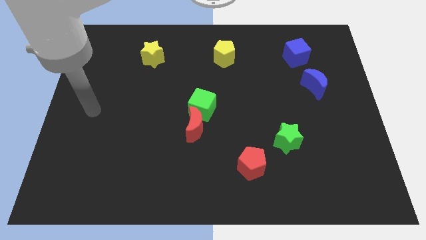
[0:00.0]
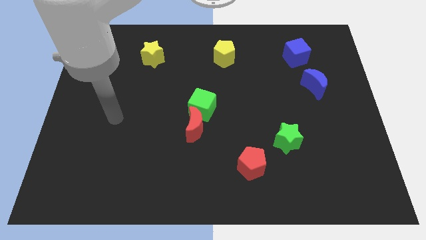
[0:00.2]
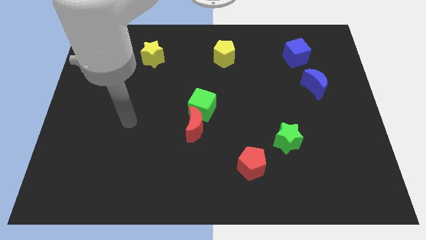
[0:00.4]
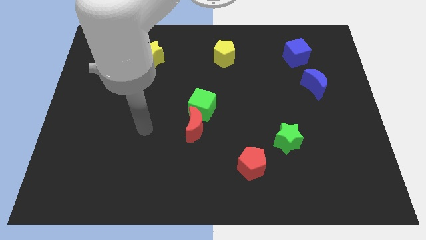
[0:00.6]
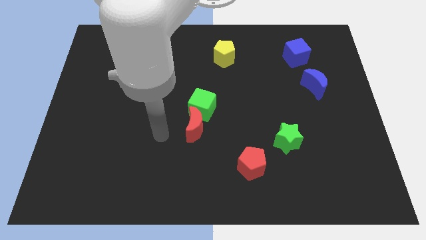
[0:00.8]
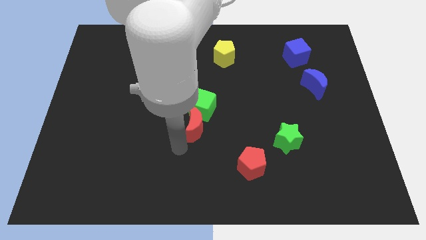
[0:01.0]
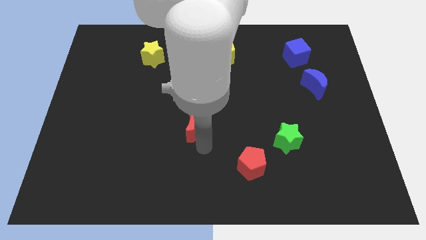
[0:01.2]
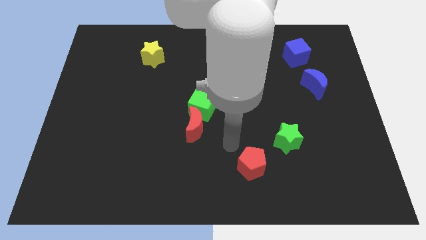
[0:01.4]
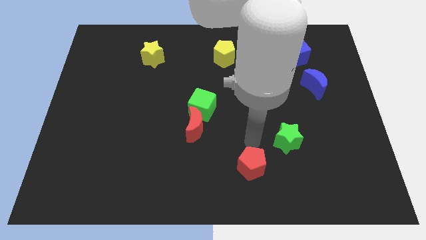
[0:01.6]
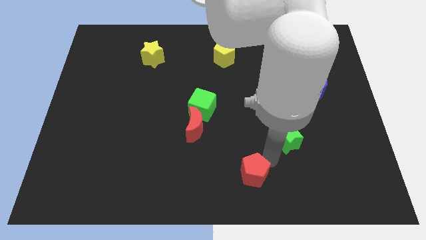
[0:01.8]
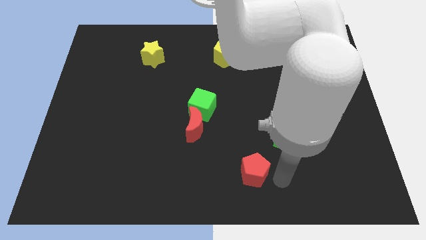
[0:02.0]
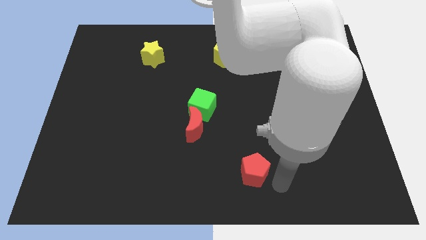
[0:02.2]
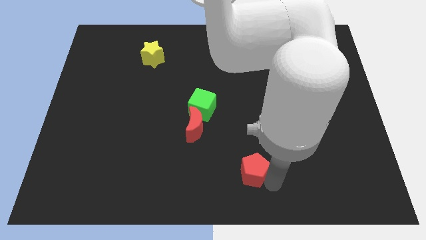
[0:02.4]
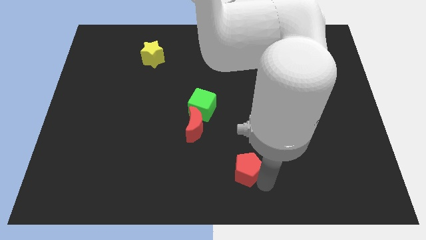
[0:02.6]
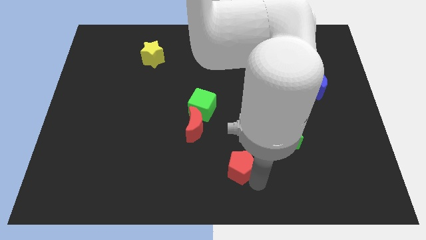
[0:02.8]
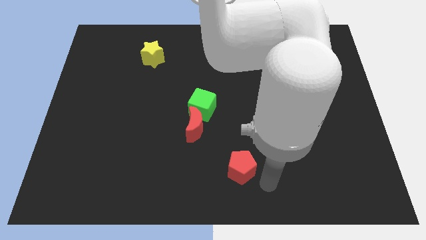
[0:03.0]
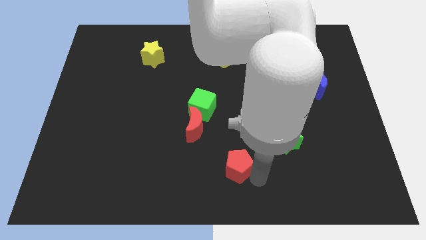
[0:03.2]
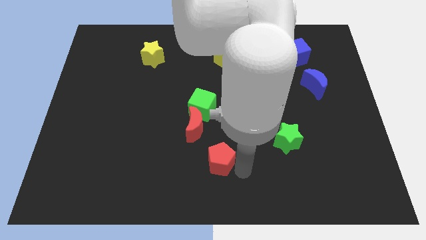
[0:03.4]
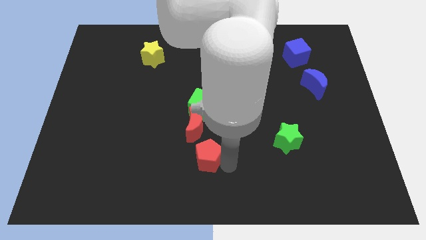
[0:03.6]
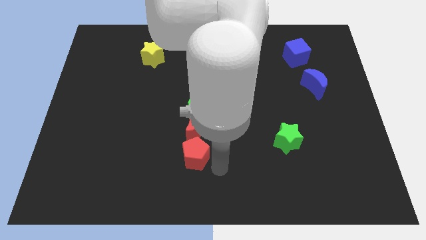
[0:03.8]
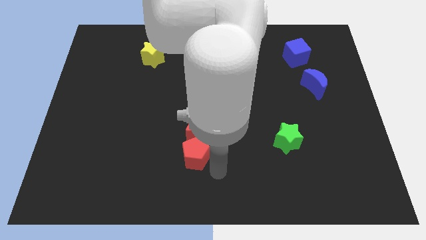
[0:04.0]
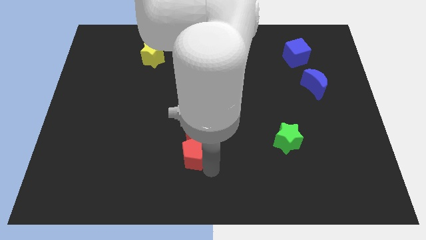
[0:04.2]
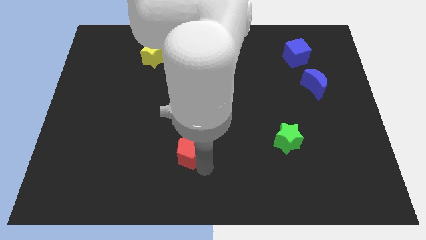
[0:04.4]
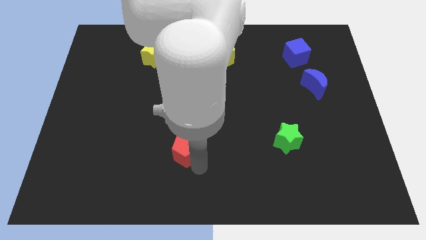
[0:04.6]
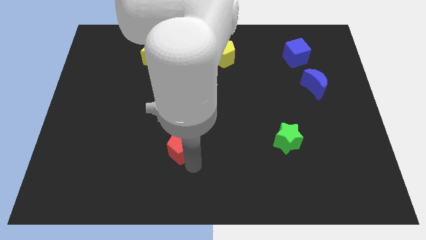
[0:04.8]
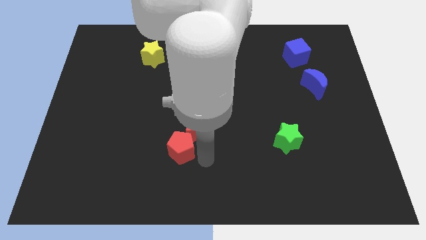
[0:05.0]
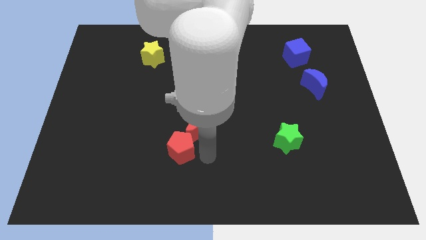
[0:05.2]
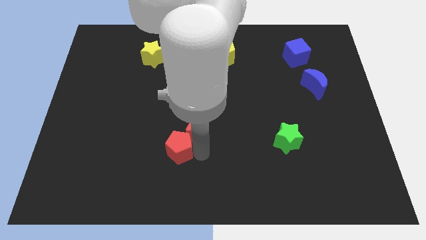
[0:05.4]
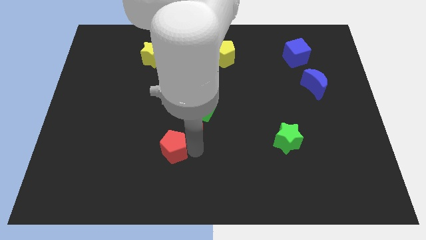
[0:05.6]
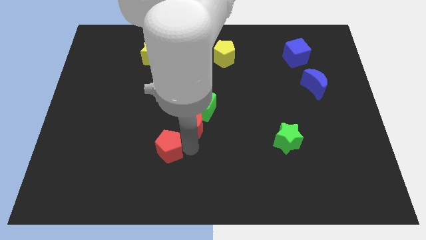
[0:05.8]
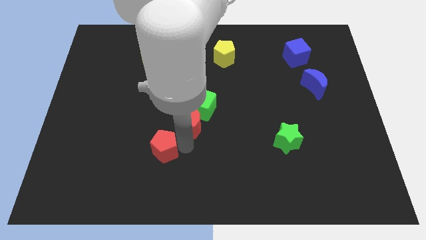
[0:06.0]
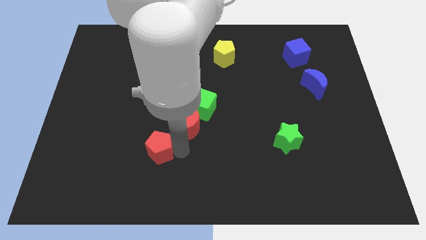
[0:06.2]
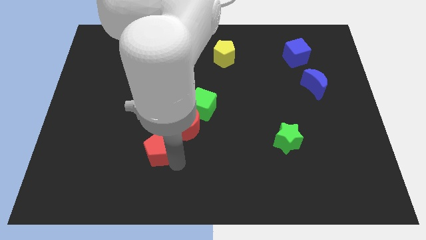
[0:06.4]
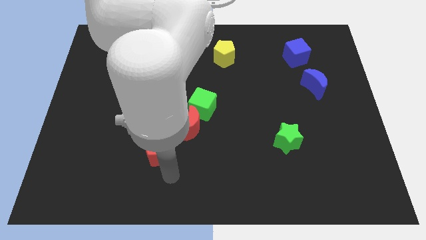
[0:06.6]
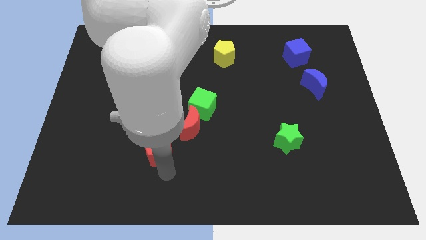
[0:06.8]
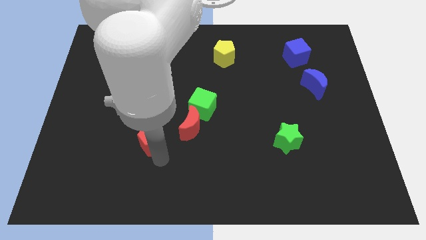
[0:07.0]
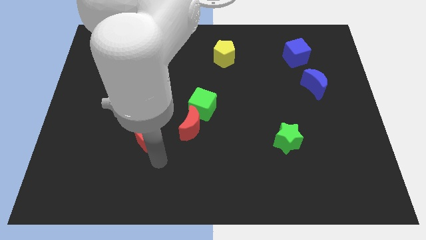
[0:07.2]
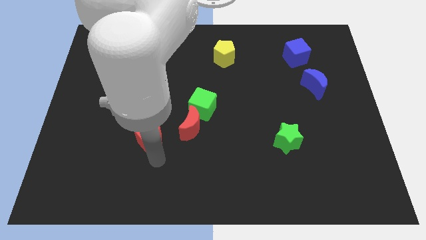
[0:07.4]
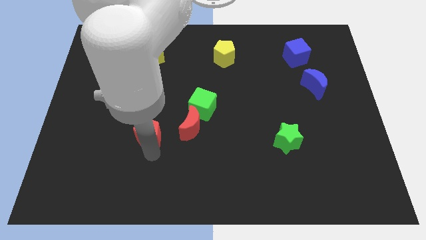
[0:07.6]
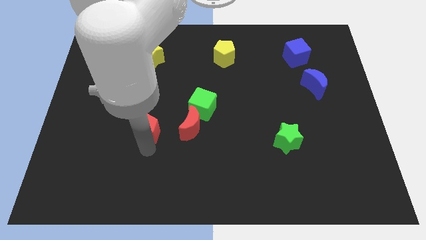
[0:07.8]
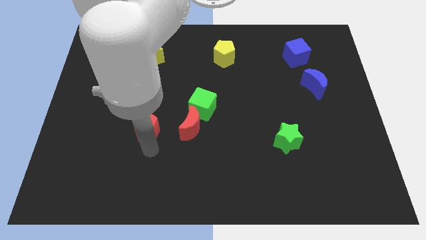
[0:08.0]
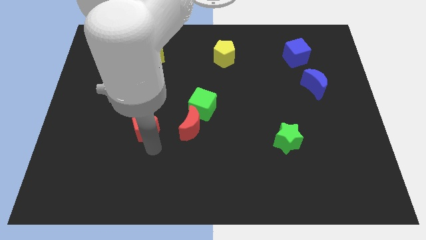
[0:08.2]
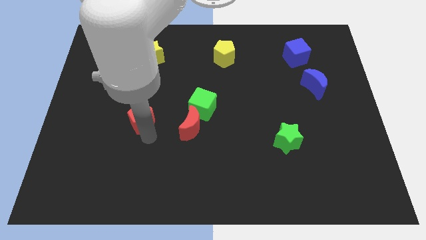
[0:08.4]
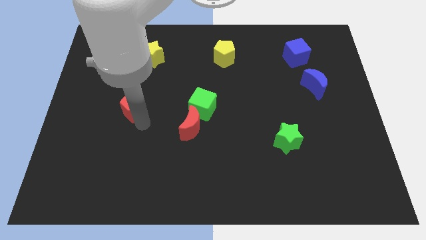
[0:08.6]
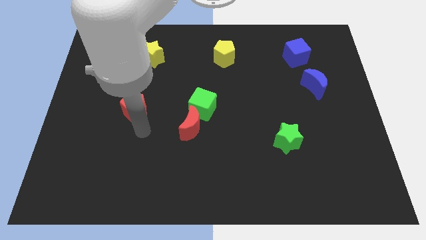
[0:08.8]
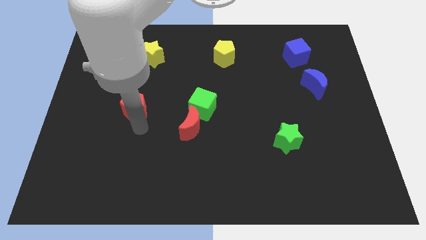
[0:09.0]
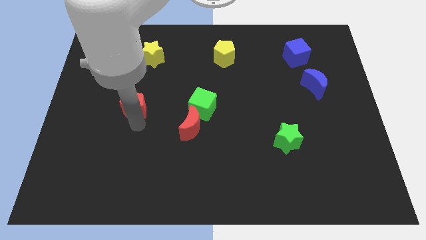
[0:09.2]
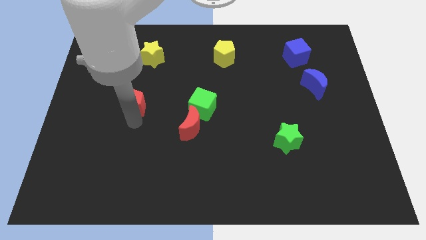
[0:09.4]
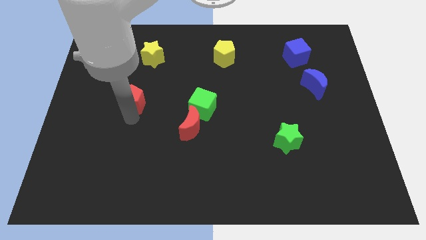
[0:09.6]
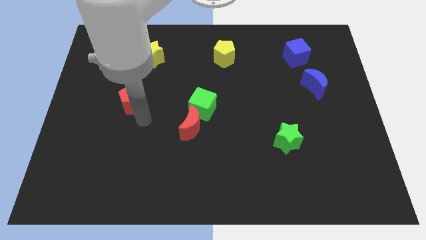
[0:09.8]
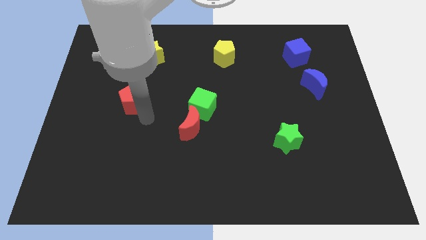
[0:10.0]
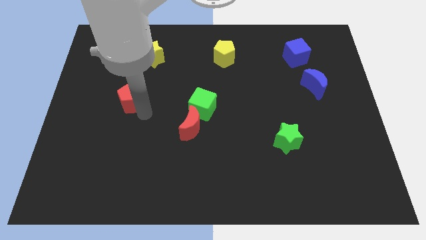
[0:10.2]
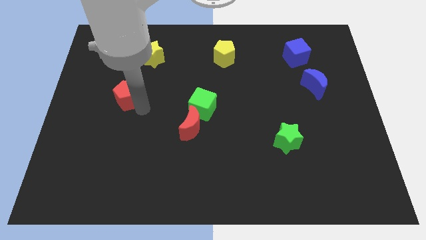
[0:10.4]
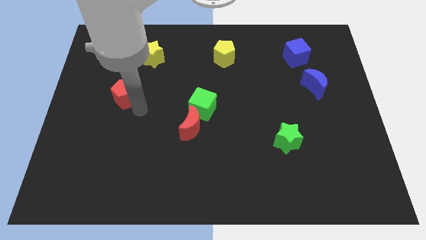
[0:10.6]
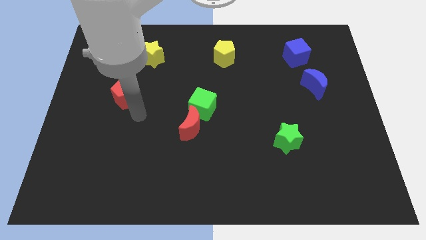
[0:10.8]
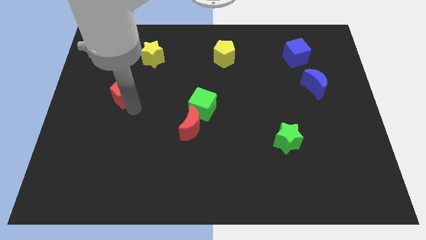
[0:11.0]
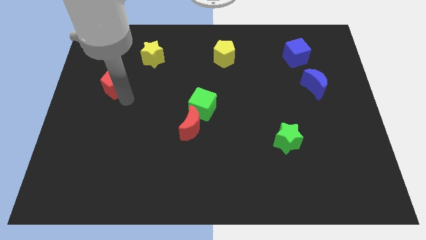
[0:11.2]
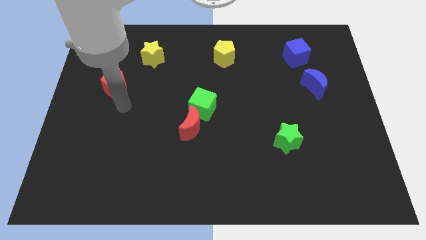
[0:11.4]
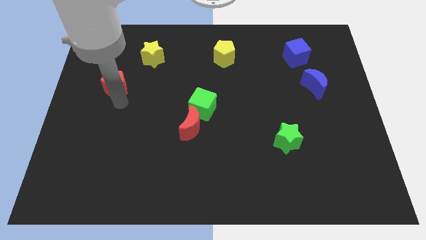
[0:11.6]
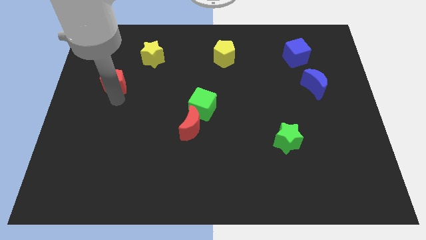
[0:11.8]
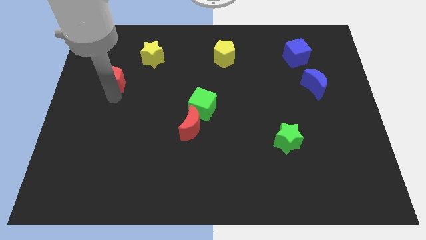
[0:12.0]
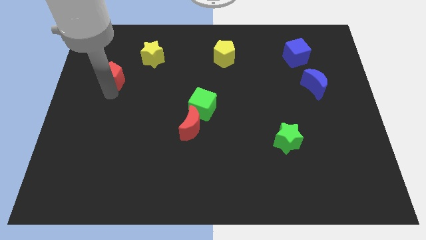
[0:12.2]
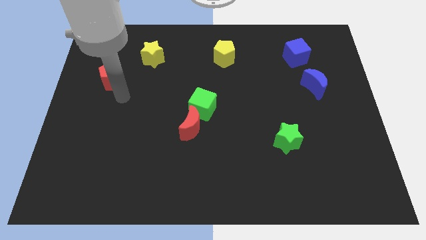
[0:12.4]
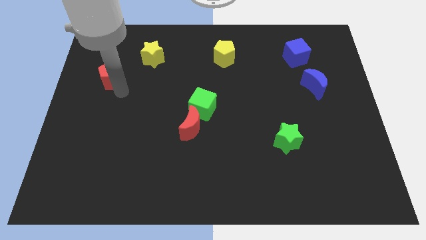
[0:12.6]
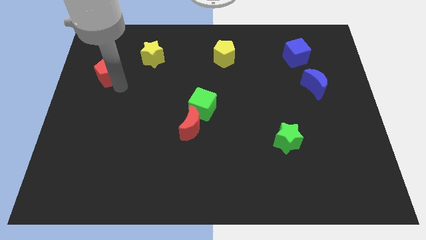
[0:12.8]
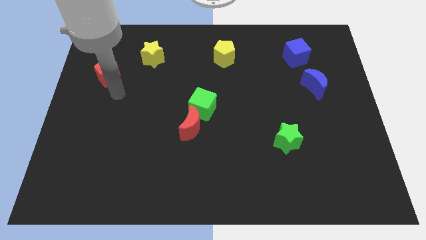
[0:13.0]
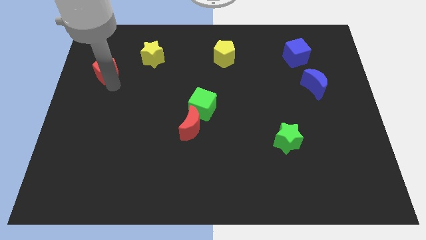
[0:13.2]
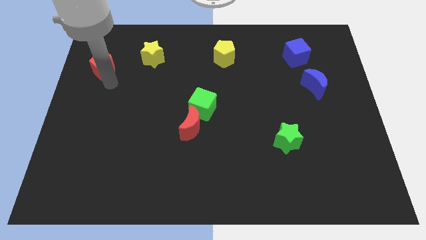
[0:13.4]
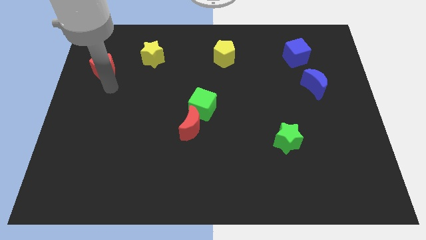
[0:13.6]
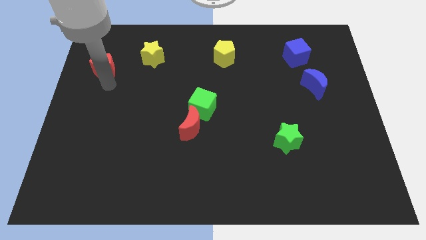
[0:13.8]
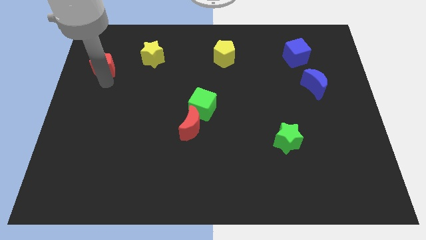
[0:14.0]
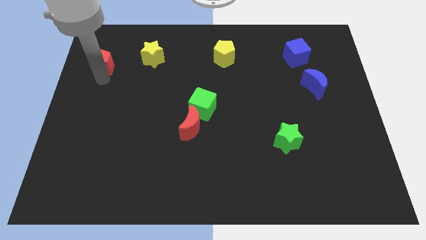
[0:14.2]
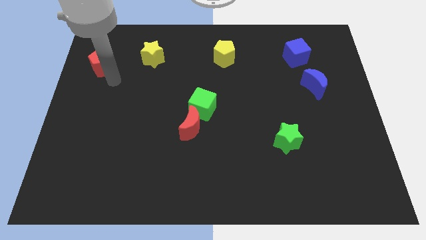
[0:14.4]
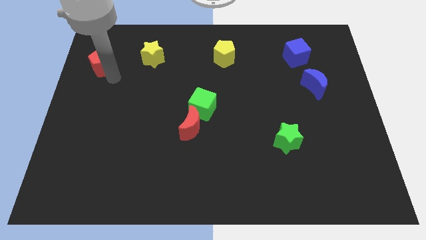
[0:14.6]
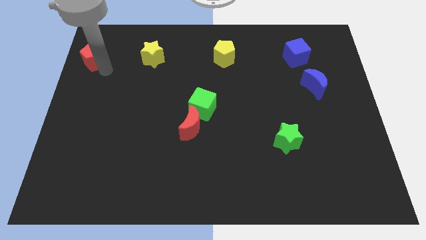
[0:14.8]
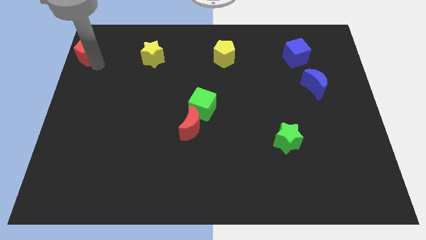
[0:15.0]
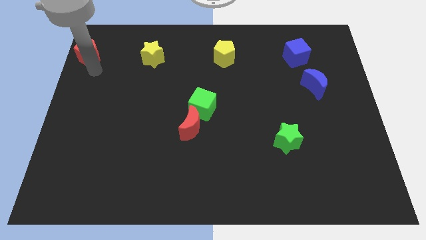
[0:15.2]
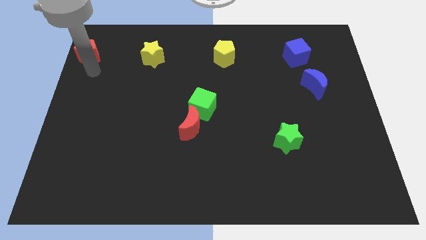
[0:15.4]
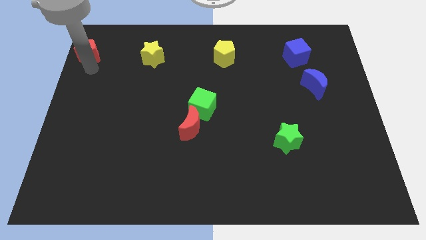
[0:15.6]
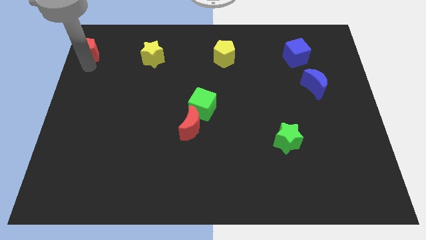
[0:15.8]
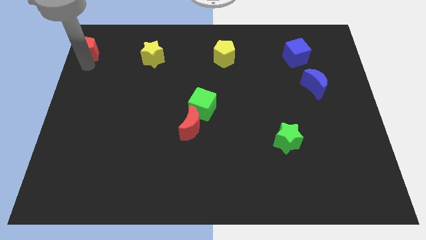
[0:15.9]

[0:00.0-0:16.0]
move the red pentagon to the upper left corner
